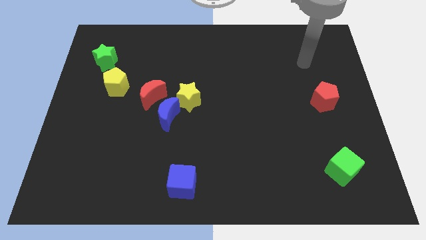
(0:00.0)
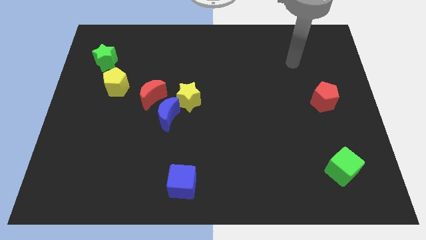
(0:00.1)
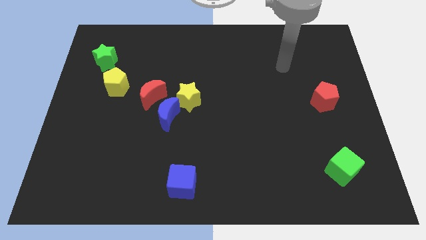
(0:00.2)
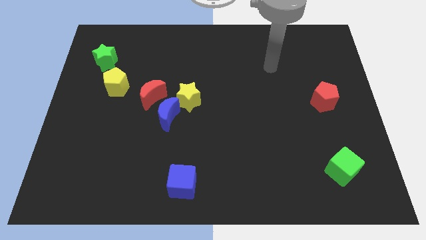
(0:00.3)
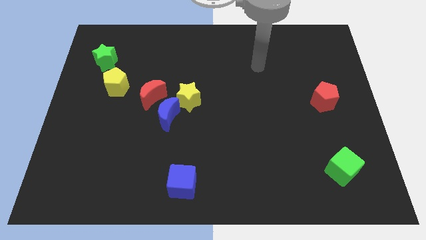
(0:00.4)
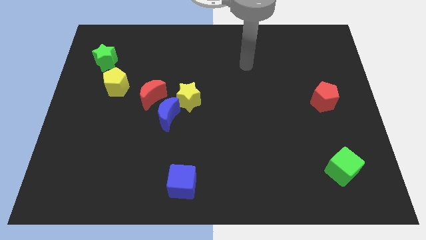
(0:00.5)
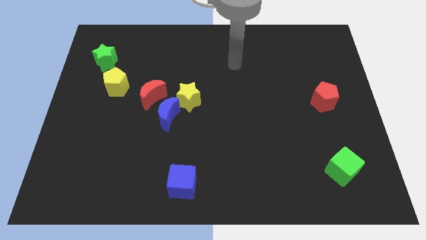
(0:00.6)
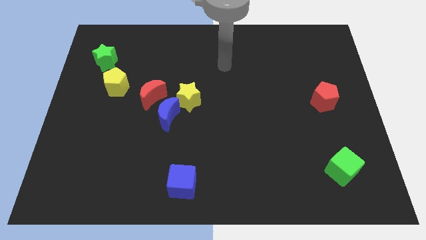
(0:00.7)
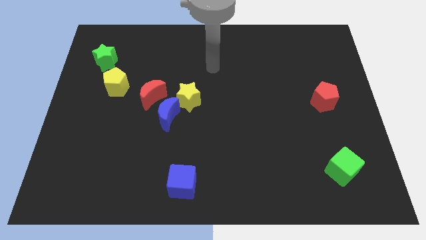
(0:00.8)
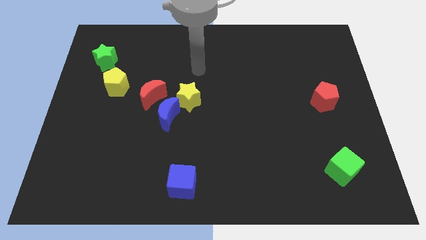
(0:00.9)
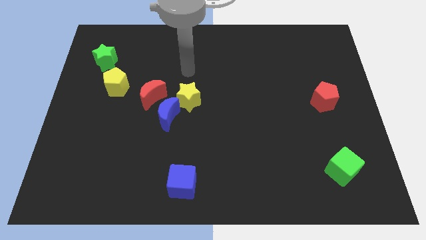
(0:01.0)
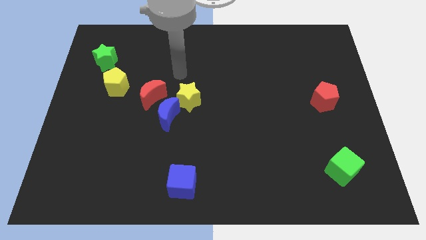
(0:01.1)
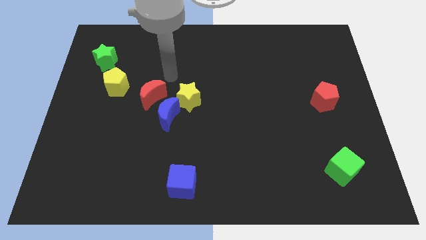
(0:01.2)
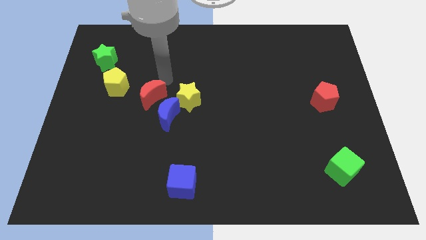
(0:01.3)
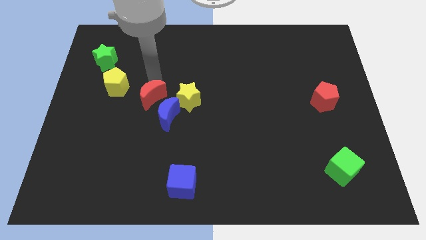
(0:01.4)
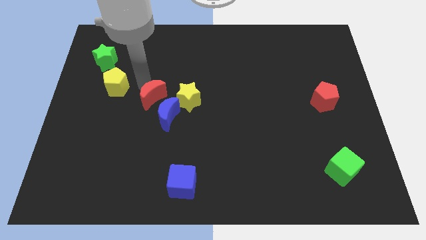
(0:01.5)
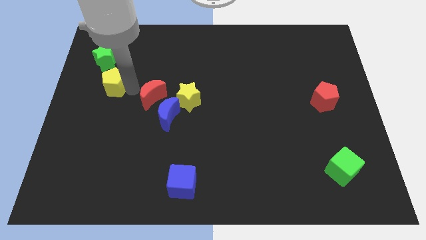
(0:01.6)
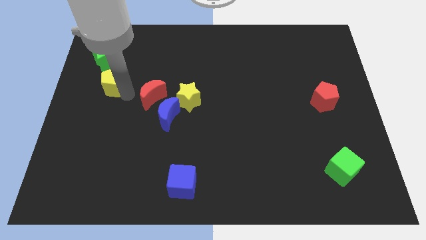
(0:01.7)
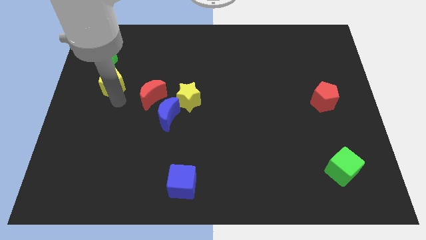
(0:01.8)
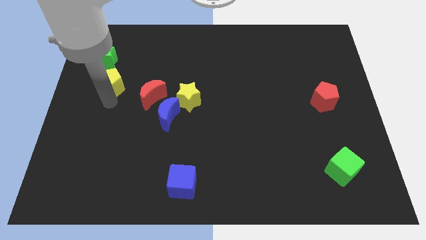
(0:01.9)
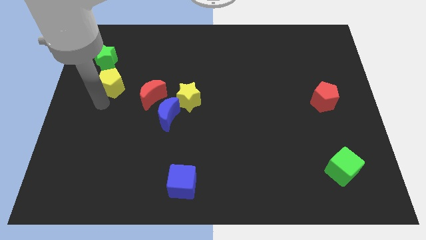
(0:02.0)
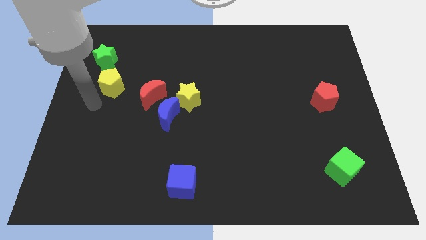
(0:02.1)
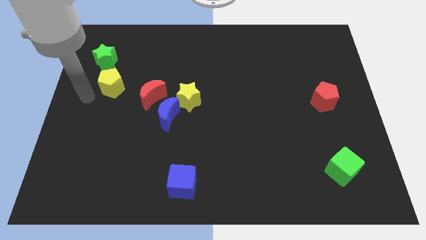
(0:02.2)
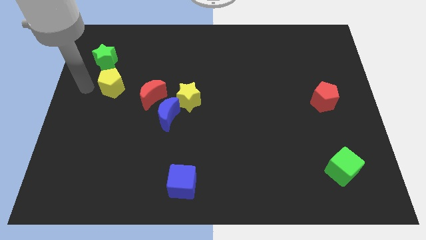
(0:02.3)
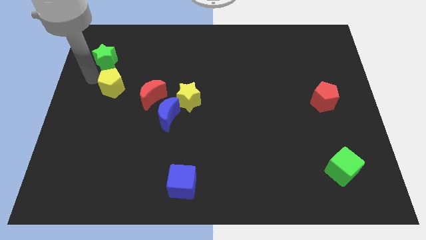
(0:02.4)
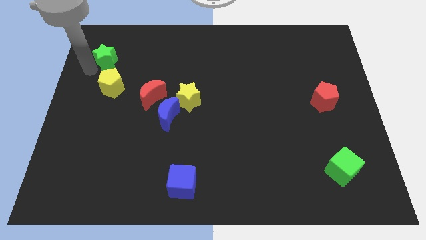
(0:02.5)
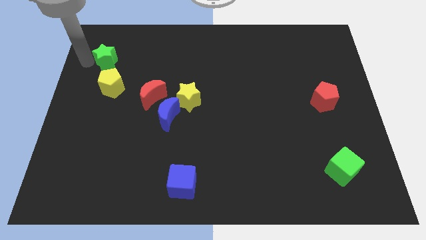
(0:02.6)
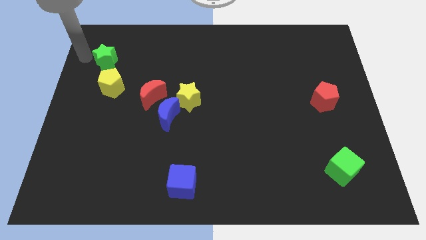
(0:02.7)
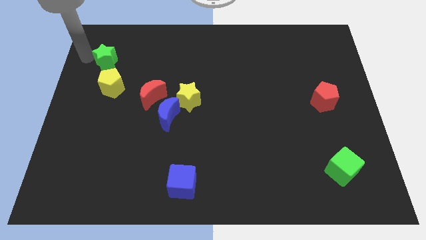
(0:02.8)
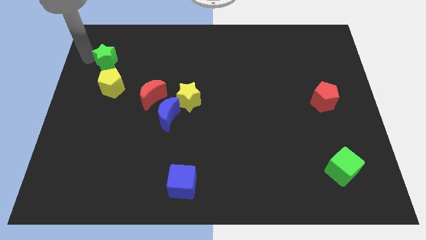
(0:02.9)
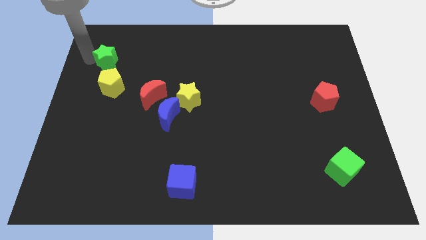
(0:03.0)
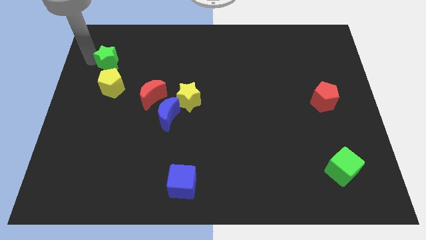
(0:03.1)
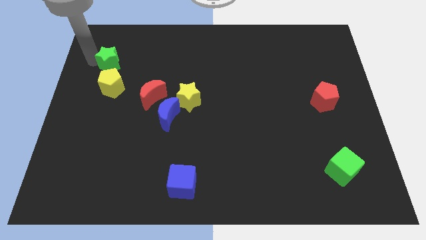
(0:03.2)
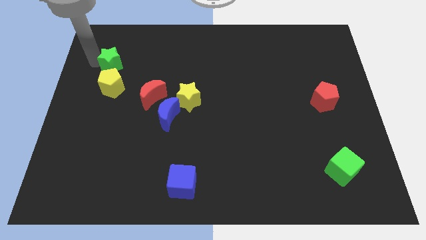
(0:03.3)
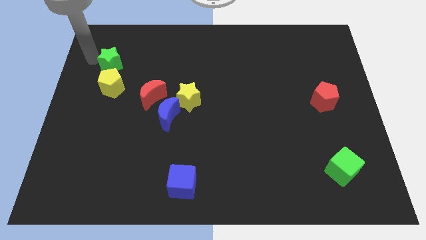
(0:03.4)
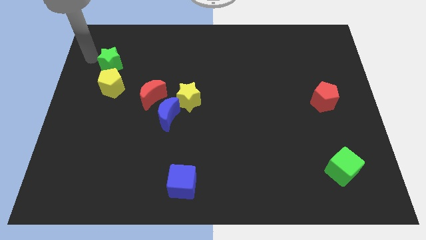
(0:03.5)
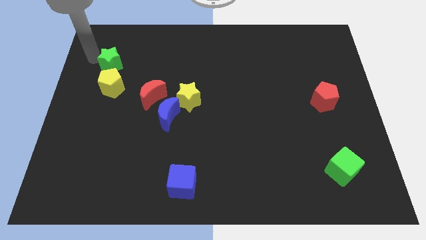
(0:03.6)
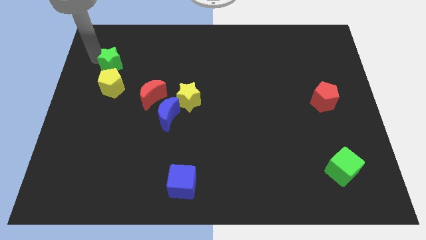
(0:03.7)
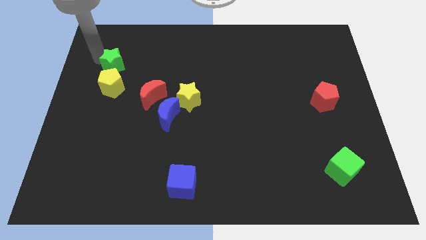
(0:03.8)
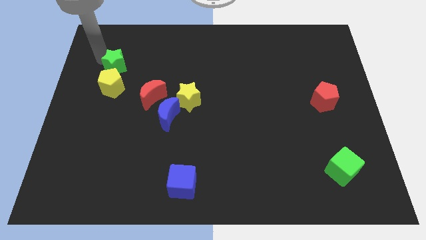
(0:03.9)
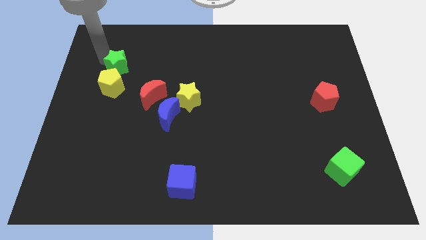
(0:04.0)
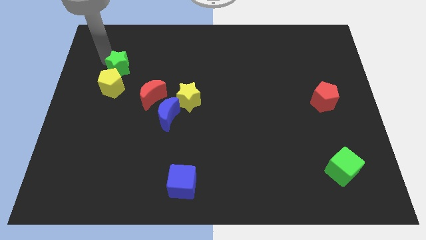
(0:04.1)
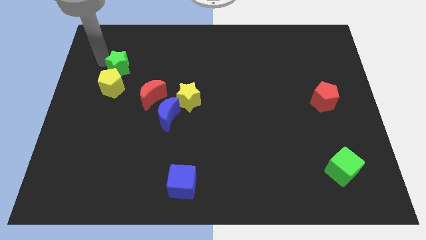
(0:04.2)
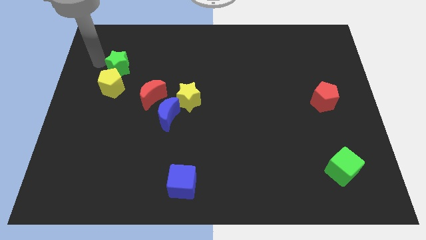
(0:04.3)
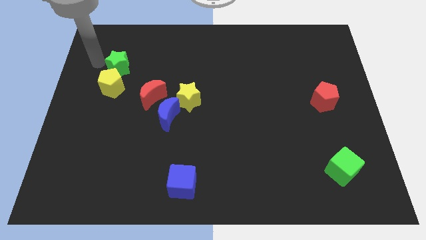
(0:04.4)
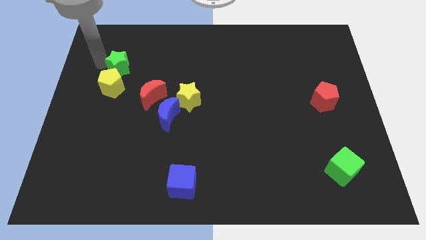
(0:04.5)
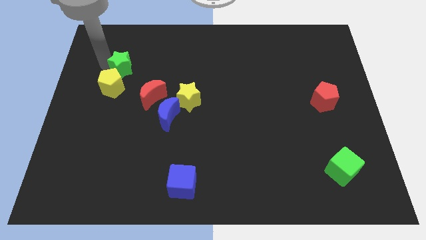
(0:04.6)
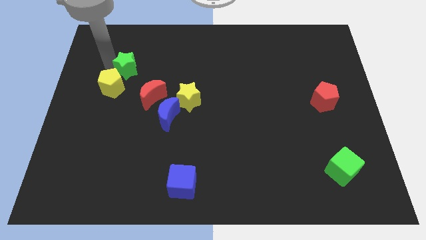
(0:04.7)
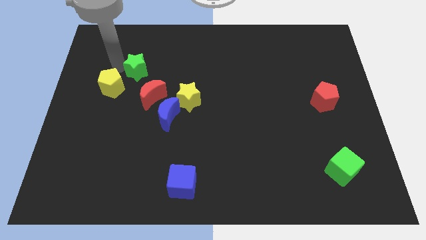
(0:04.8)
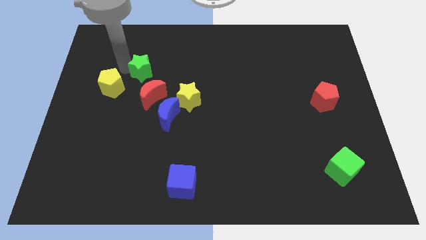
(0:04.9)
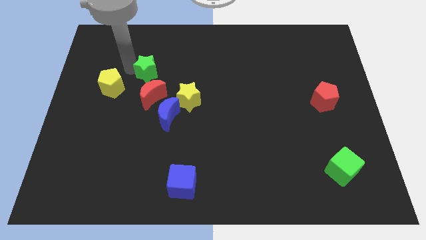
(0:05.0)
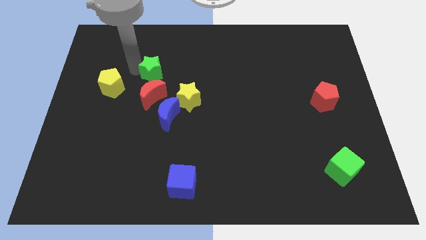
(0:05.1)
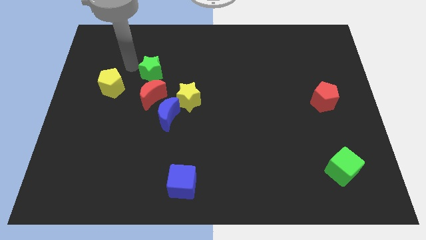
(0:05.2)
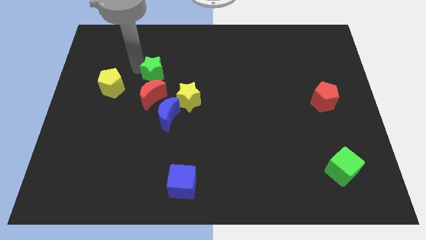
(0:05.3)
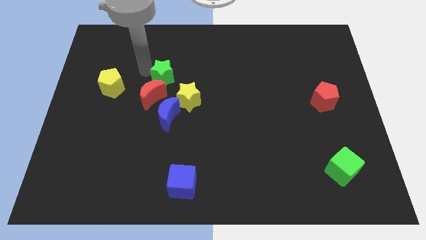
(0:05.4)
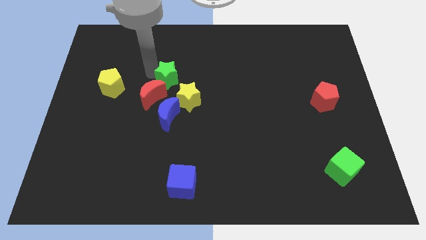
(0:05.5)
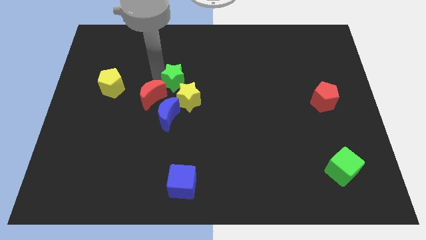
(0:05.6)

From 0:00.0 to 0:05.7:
push the green star to the middle

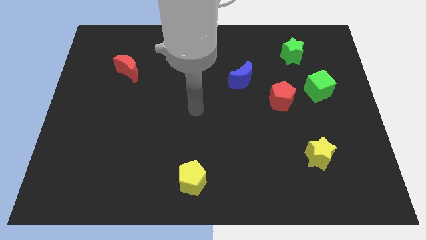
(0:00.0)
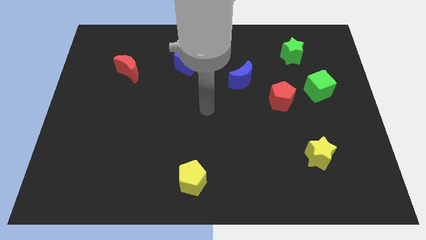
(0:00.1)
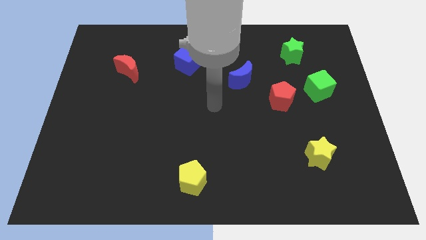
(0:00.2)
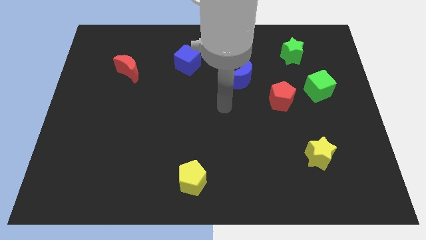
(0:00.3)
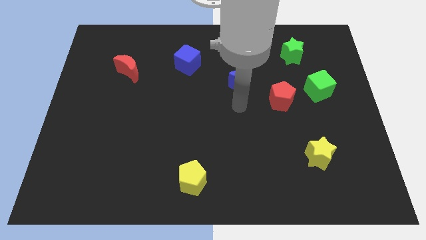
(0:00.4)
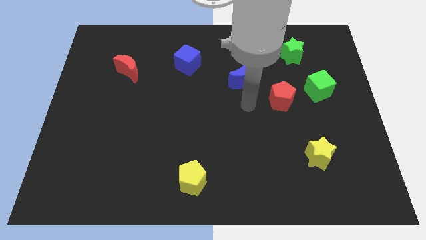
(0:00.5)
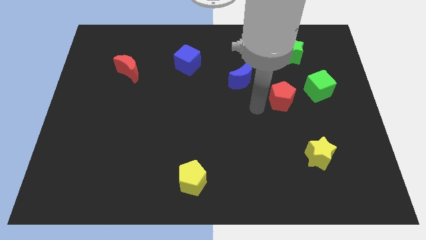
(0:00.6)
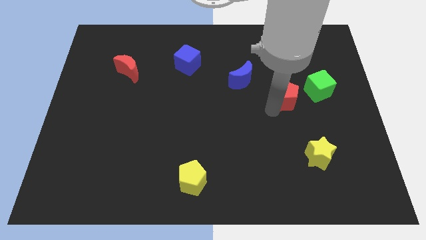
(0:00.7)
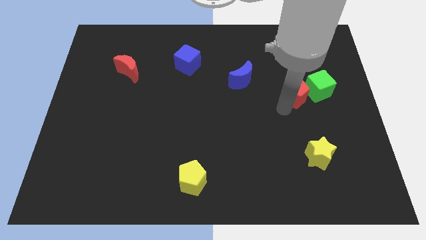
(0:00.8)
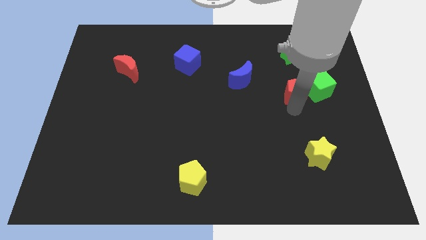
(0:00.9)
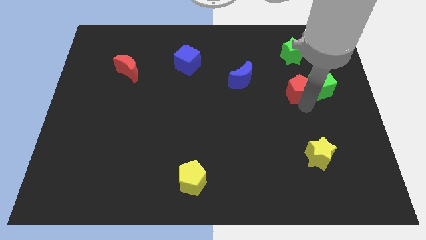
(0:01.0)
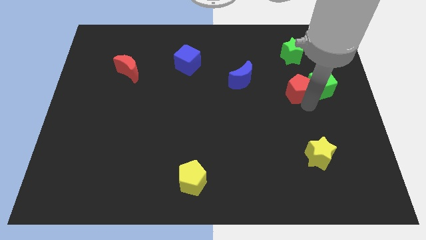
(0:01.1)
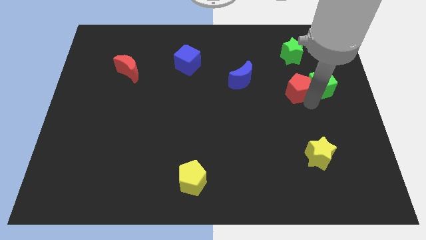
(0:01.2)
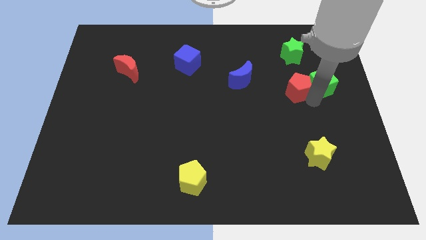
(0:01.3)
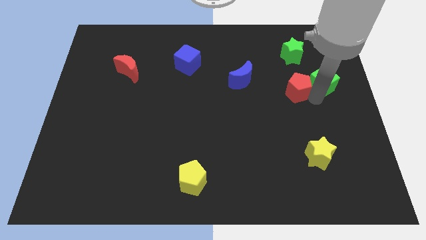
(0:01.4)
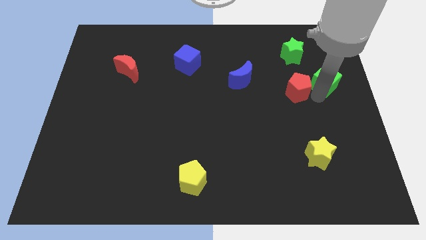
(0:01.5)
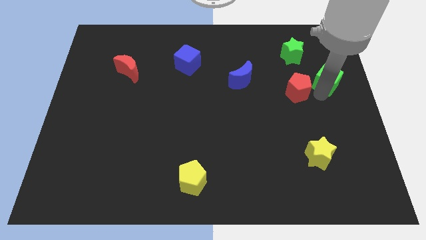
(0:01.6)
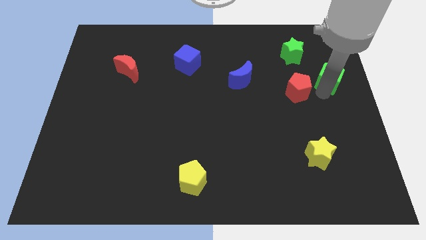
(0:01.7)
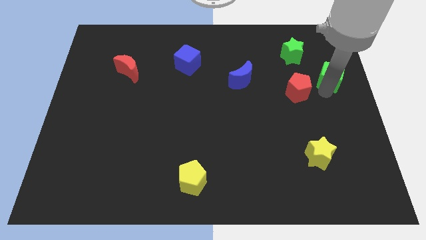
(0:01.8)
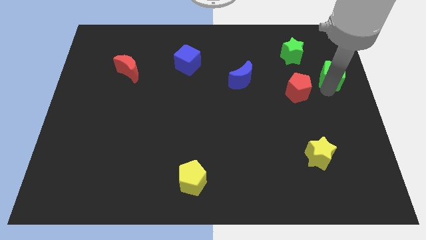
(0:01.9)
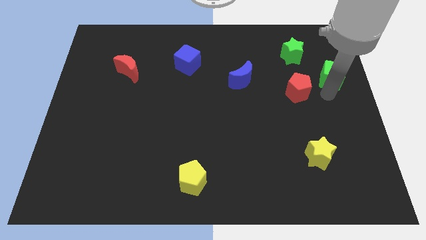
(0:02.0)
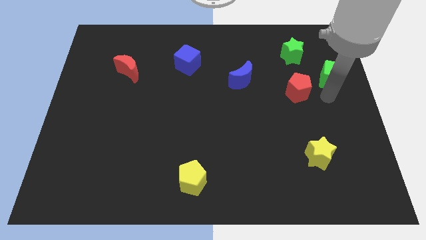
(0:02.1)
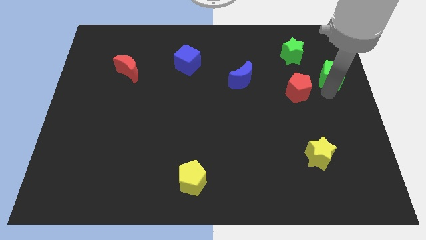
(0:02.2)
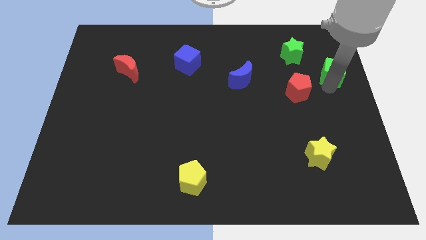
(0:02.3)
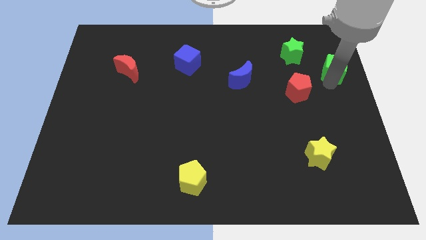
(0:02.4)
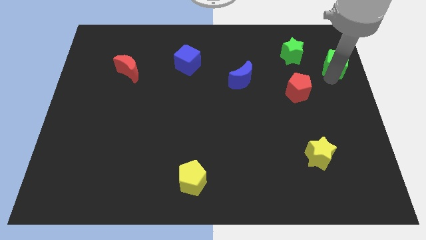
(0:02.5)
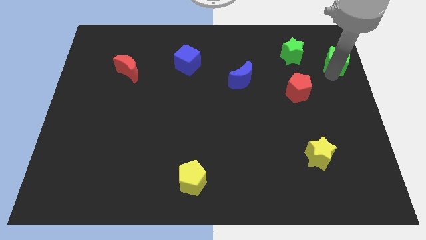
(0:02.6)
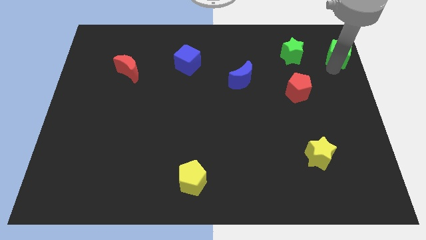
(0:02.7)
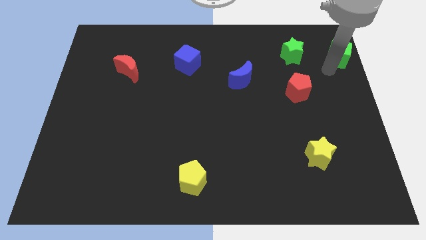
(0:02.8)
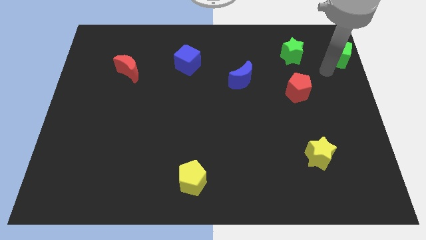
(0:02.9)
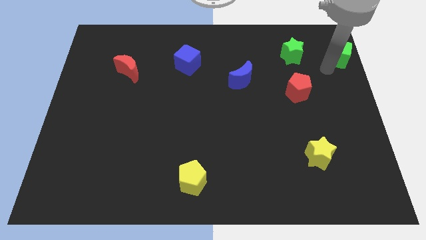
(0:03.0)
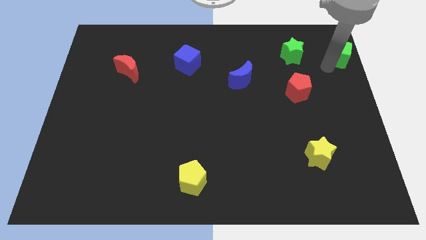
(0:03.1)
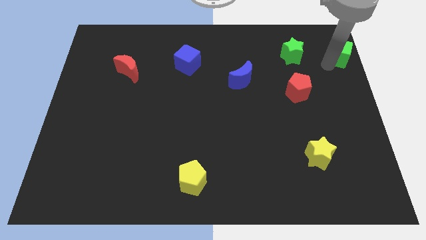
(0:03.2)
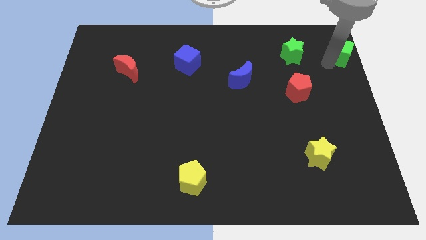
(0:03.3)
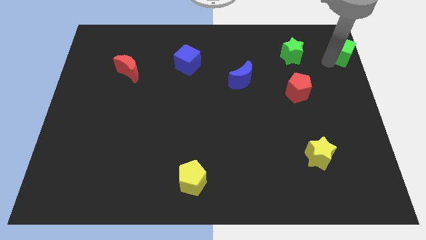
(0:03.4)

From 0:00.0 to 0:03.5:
put the green cube to the upper right corner
